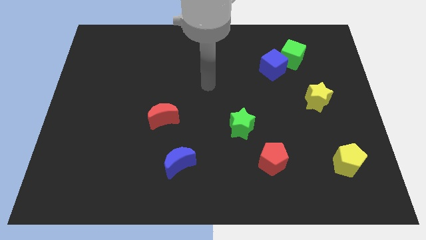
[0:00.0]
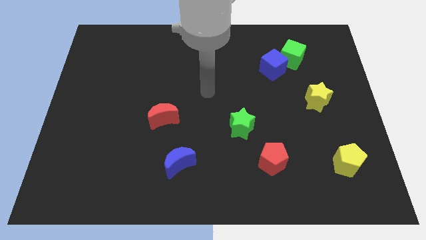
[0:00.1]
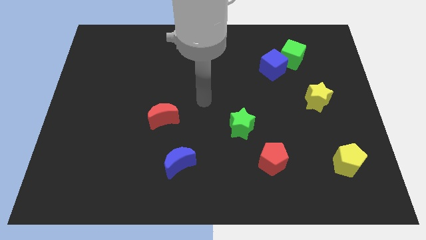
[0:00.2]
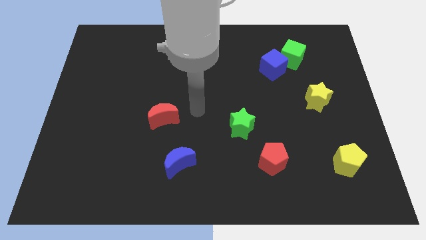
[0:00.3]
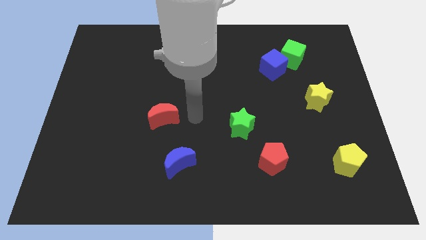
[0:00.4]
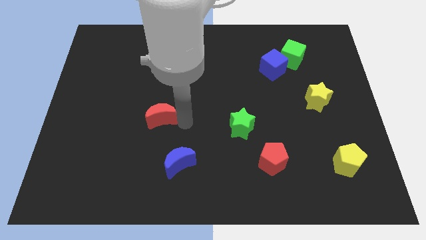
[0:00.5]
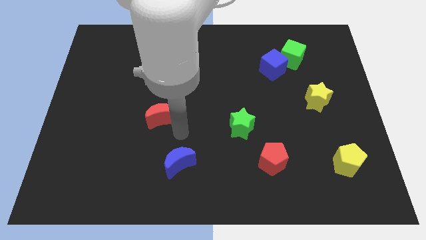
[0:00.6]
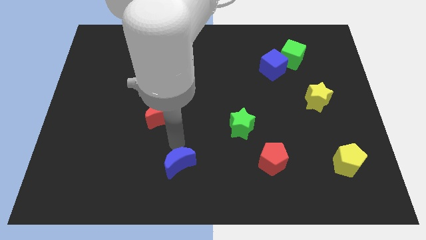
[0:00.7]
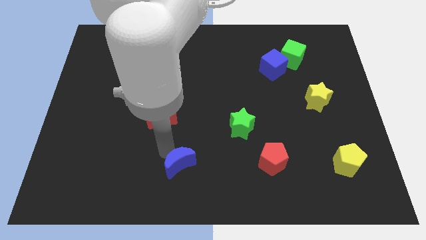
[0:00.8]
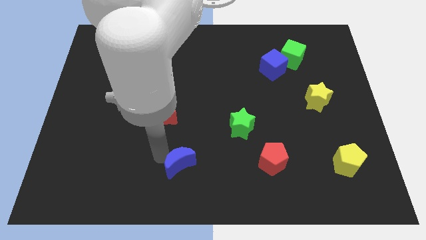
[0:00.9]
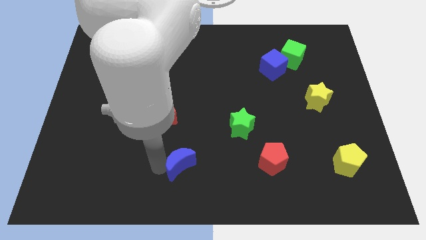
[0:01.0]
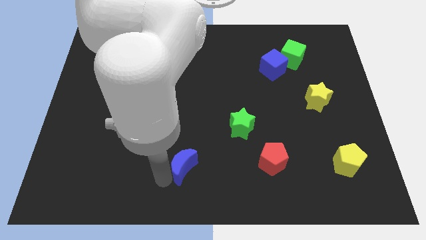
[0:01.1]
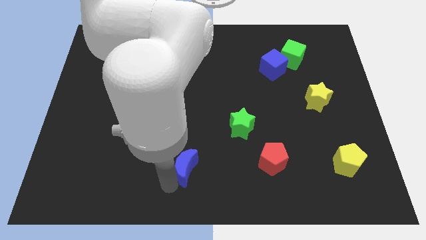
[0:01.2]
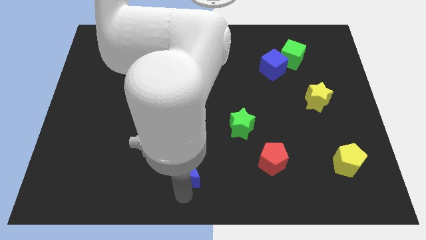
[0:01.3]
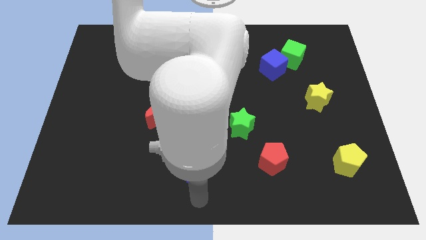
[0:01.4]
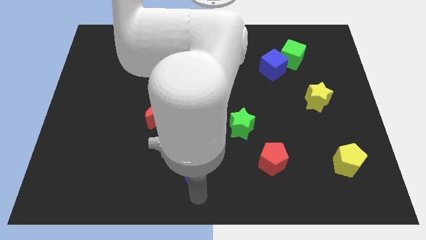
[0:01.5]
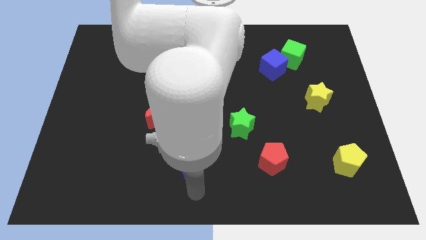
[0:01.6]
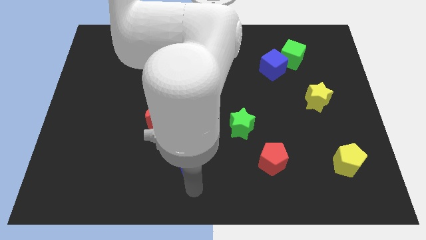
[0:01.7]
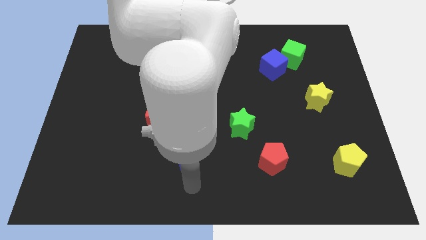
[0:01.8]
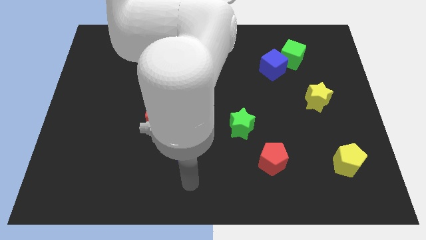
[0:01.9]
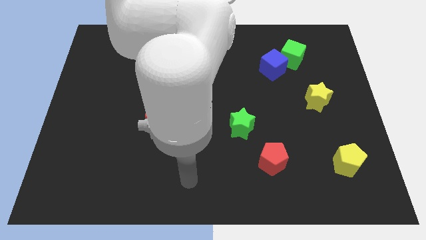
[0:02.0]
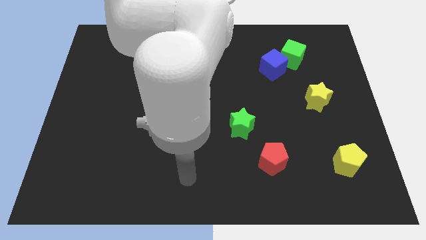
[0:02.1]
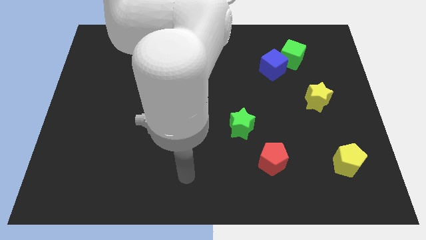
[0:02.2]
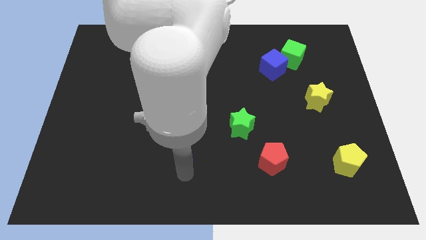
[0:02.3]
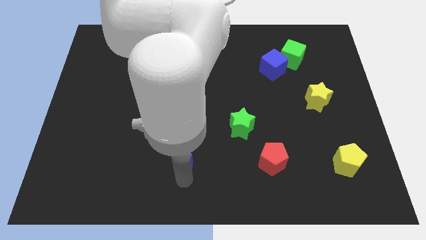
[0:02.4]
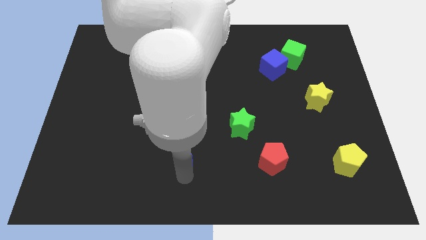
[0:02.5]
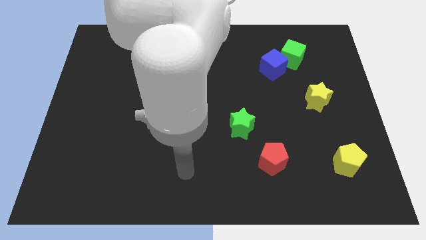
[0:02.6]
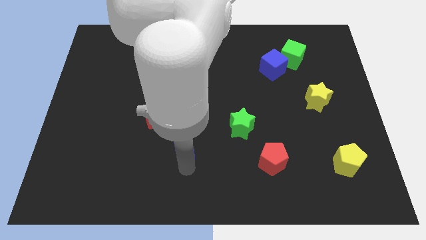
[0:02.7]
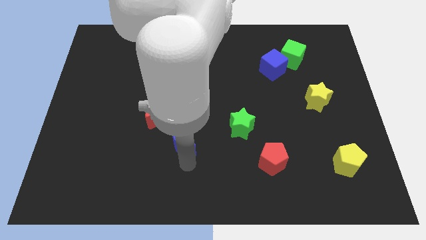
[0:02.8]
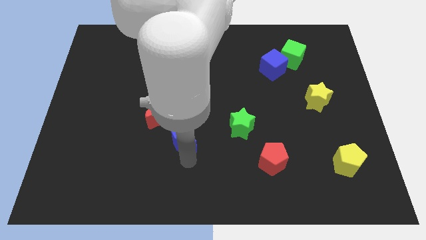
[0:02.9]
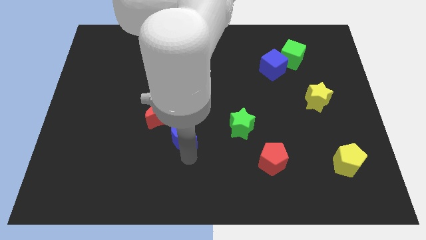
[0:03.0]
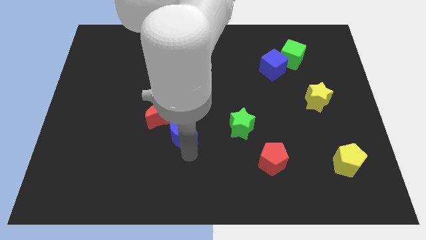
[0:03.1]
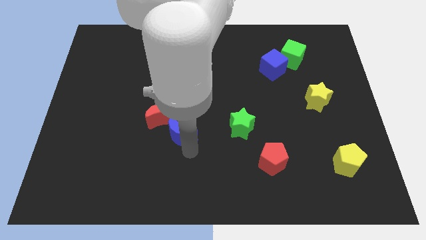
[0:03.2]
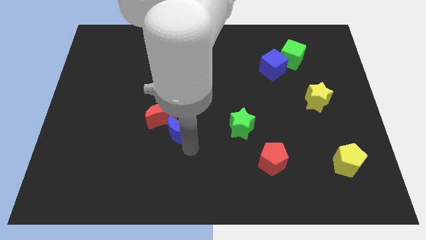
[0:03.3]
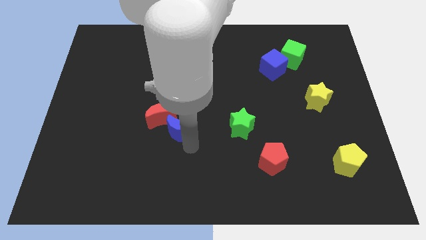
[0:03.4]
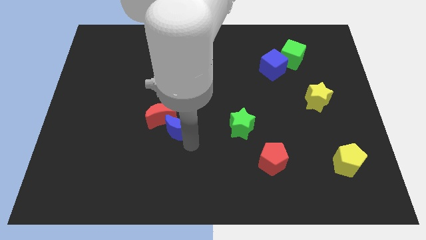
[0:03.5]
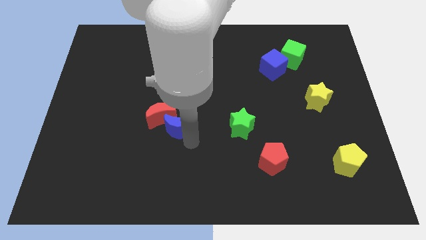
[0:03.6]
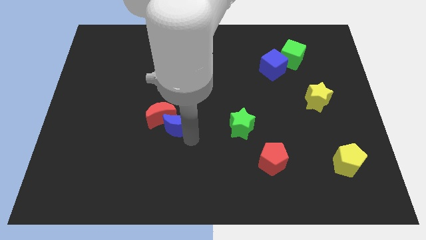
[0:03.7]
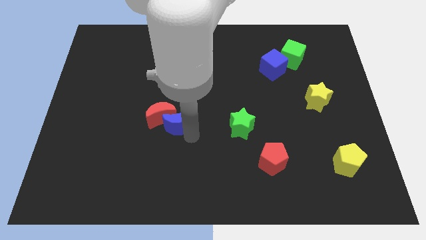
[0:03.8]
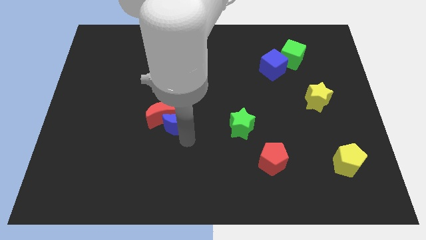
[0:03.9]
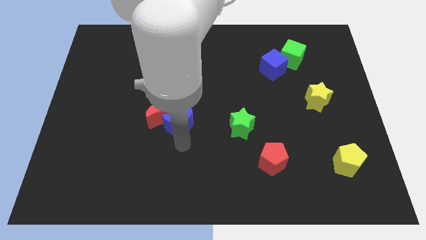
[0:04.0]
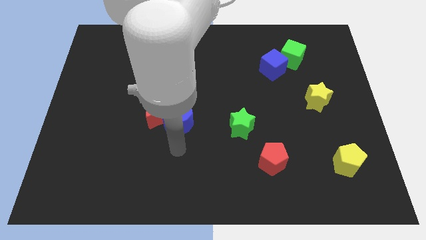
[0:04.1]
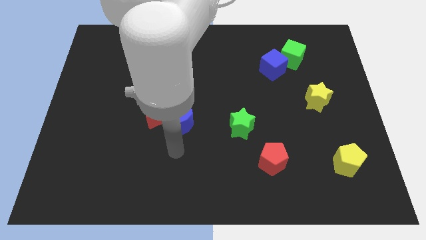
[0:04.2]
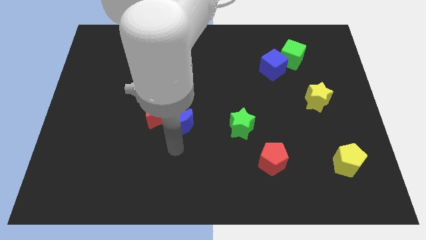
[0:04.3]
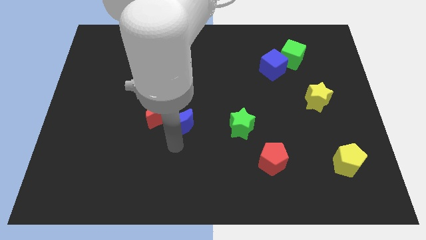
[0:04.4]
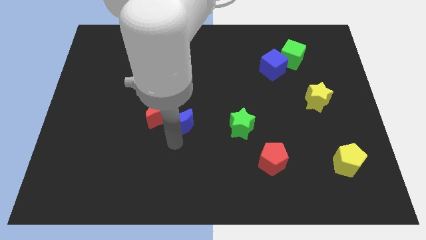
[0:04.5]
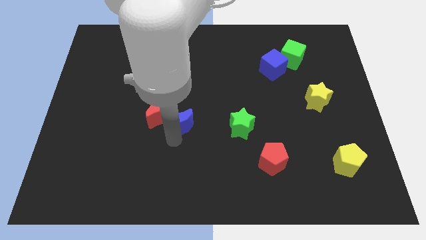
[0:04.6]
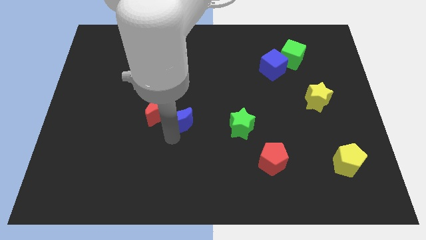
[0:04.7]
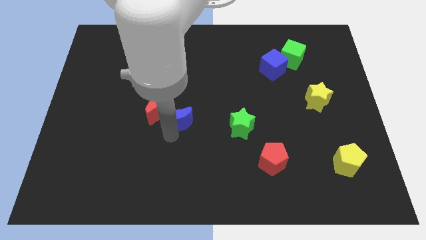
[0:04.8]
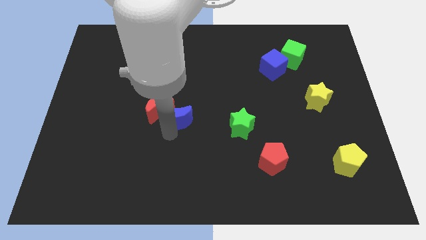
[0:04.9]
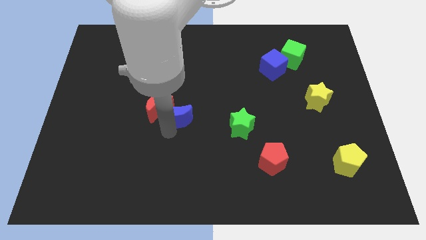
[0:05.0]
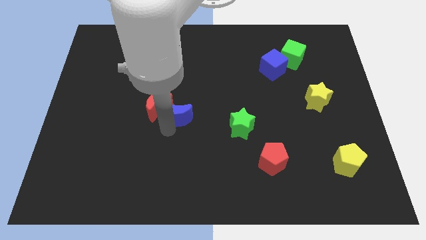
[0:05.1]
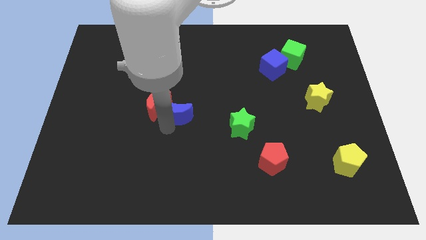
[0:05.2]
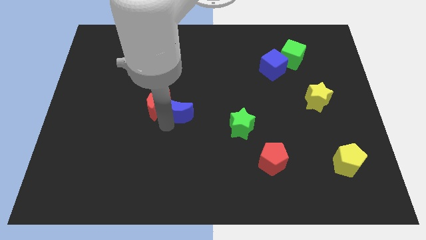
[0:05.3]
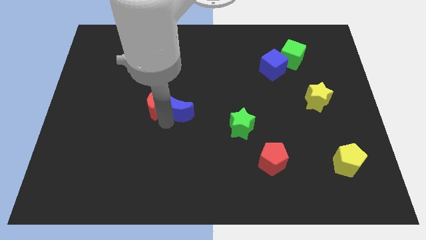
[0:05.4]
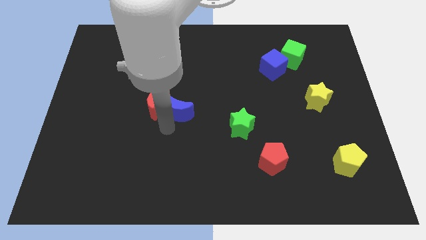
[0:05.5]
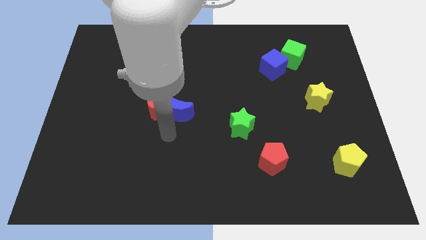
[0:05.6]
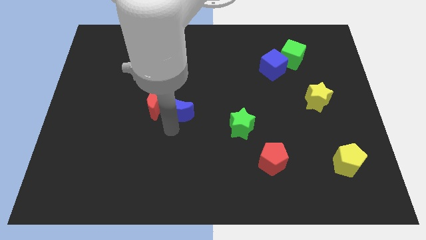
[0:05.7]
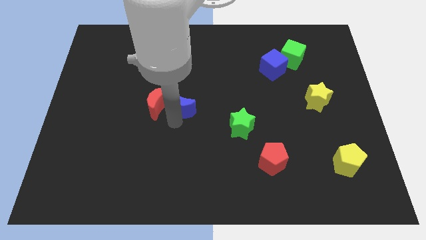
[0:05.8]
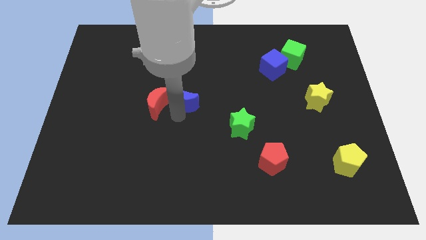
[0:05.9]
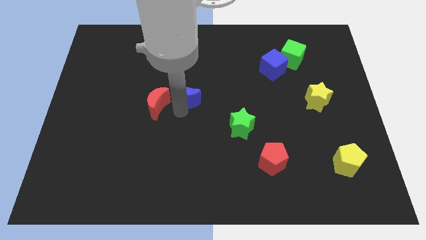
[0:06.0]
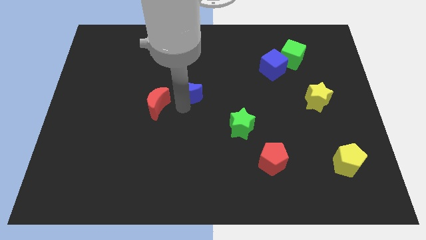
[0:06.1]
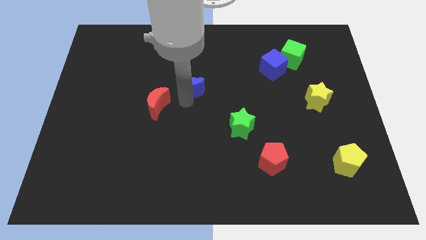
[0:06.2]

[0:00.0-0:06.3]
move the blue moon up

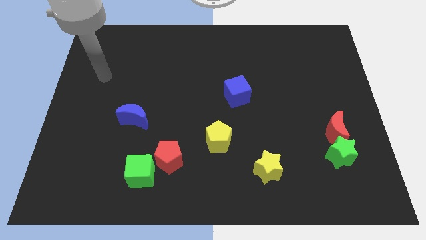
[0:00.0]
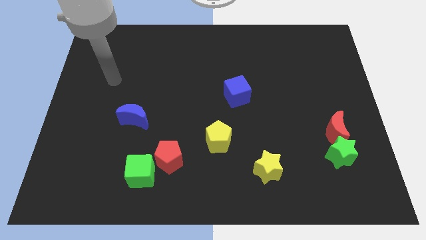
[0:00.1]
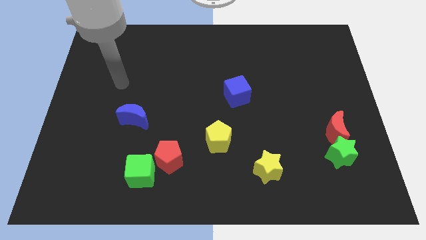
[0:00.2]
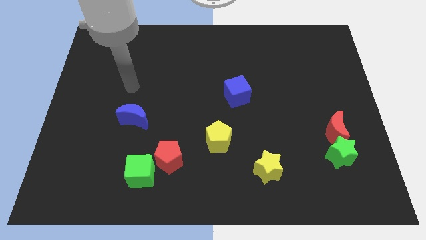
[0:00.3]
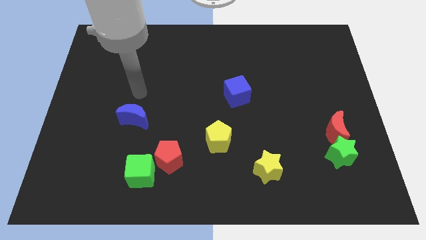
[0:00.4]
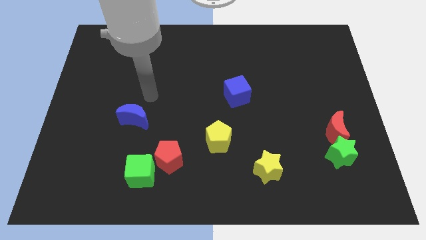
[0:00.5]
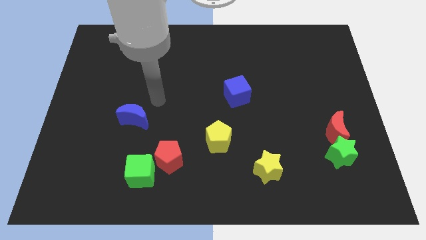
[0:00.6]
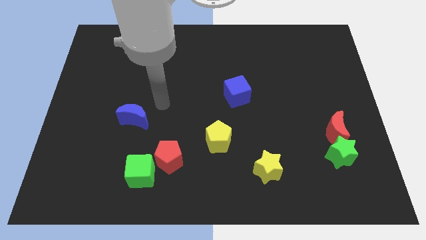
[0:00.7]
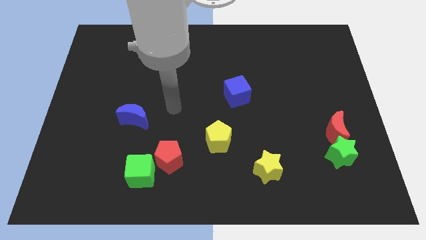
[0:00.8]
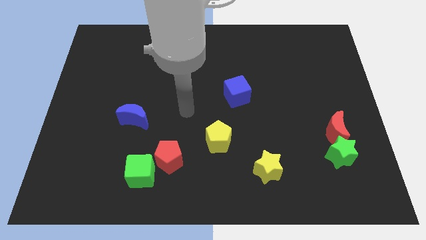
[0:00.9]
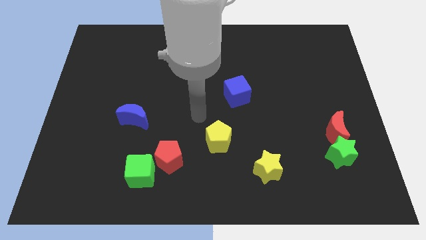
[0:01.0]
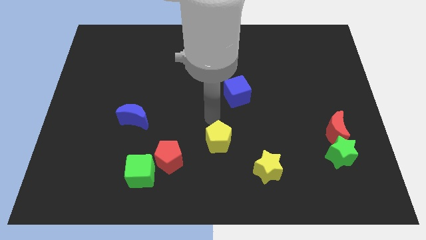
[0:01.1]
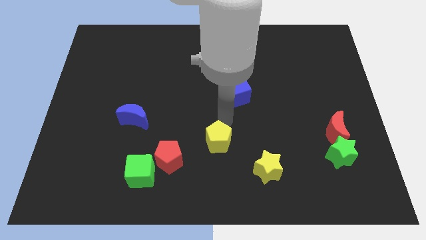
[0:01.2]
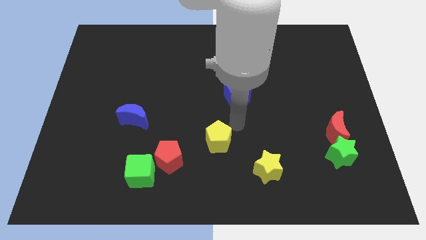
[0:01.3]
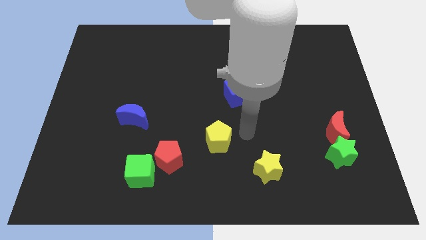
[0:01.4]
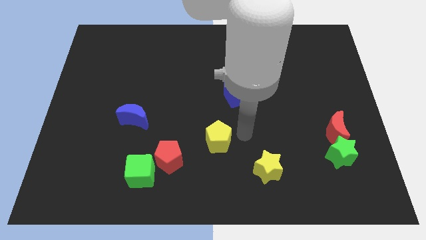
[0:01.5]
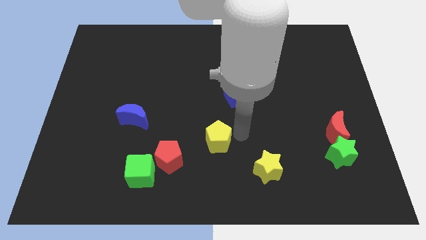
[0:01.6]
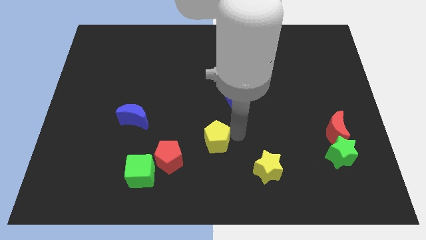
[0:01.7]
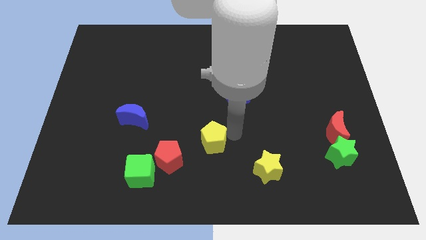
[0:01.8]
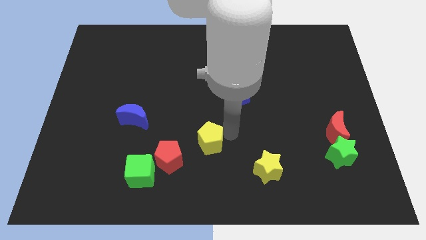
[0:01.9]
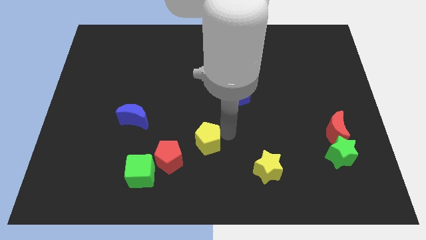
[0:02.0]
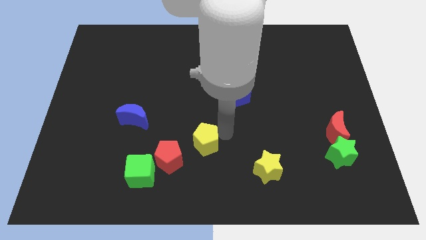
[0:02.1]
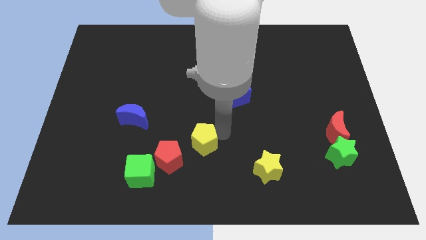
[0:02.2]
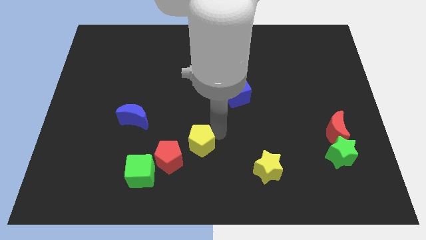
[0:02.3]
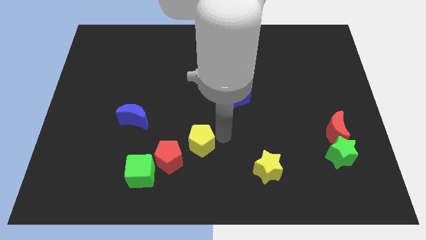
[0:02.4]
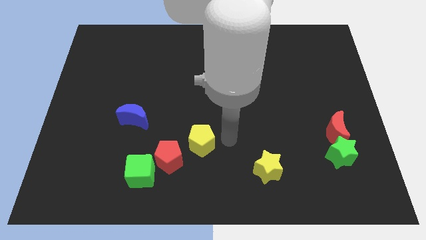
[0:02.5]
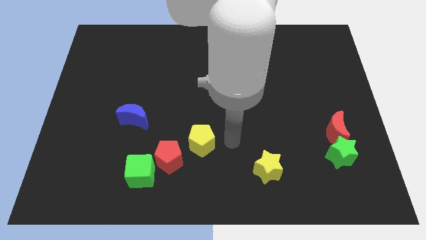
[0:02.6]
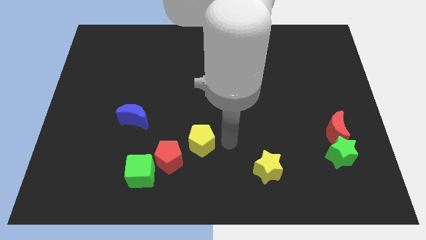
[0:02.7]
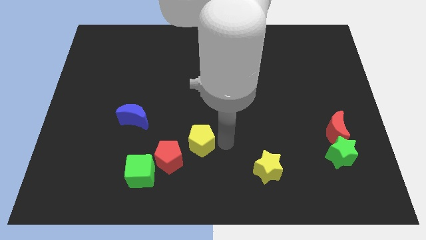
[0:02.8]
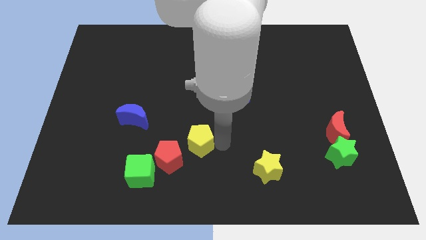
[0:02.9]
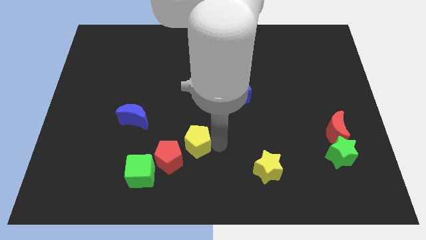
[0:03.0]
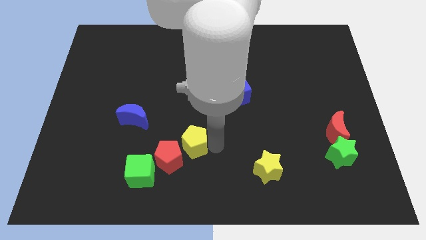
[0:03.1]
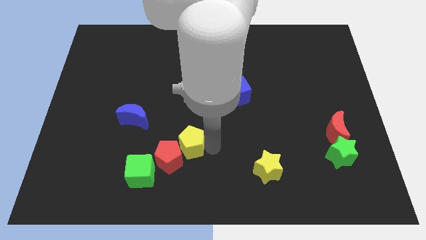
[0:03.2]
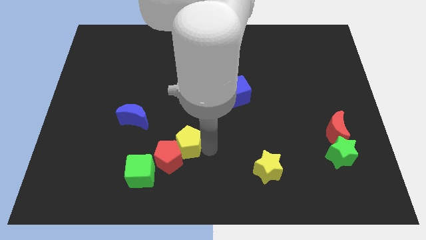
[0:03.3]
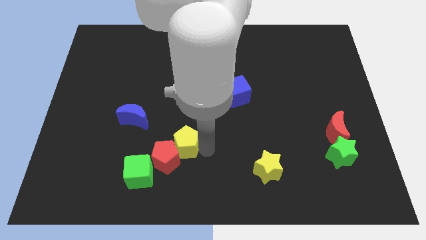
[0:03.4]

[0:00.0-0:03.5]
slightly move the yellow pentagon left
